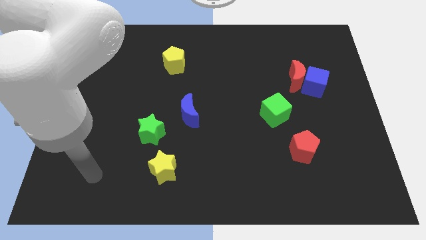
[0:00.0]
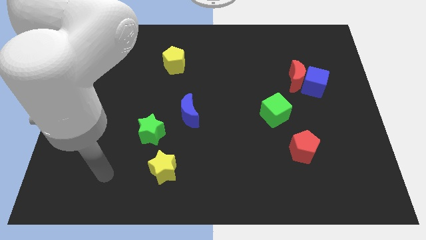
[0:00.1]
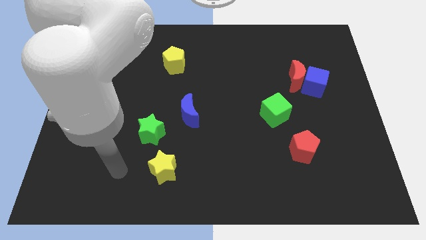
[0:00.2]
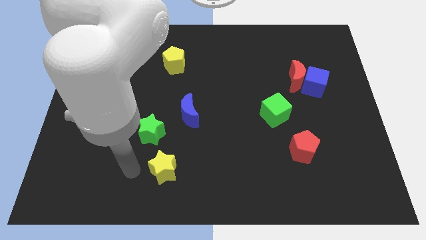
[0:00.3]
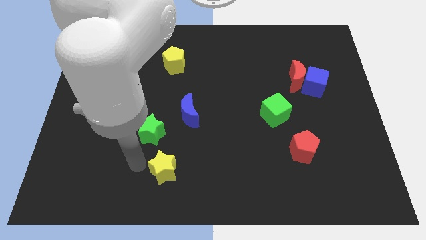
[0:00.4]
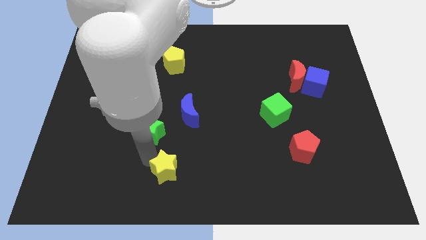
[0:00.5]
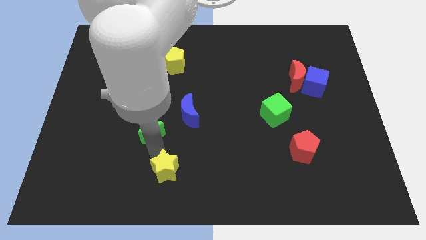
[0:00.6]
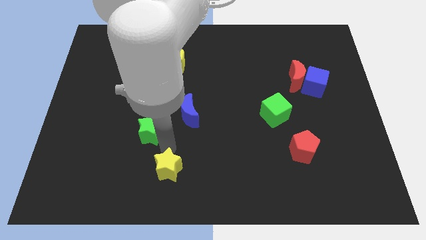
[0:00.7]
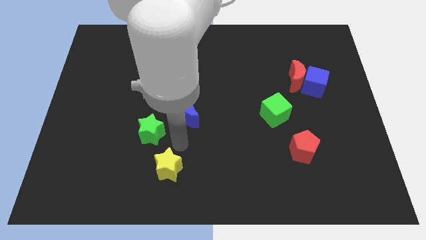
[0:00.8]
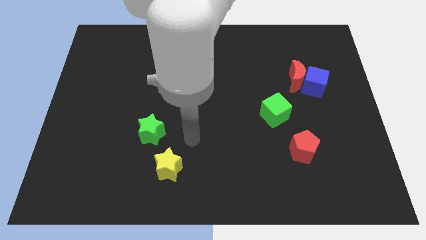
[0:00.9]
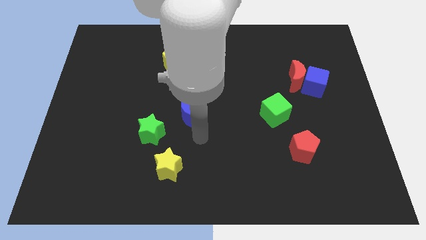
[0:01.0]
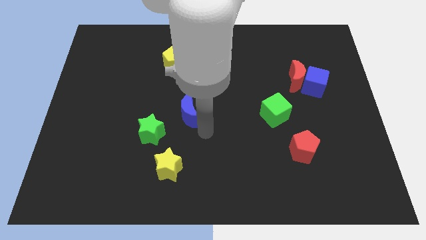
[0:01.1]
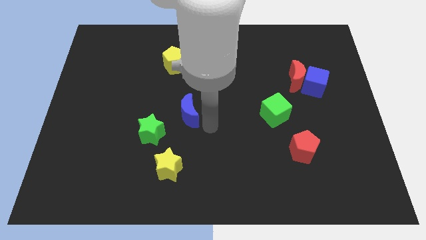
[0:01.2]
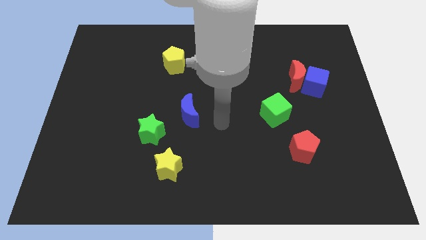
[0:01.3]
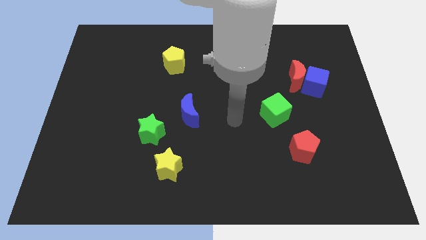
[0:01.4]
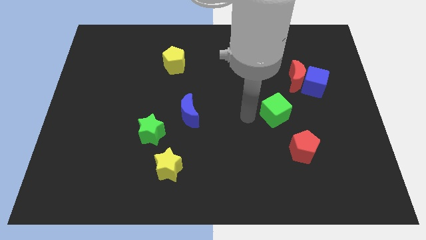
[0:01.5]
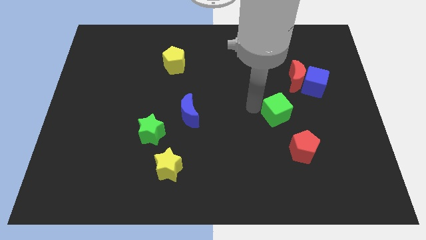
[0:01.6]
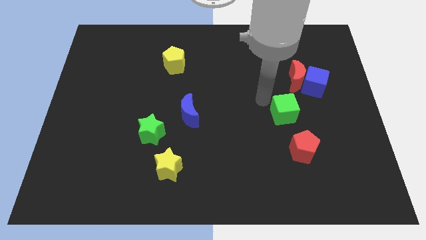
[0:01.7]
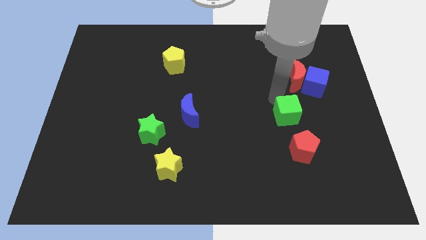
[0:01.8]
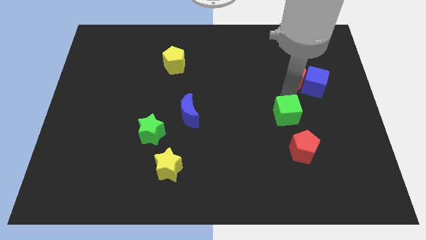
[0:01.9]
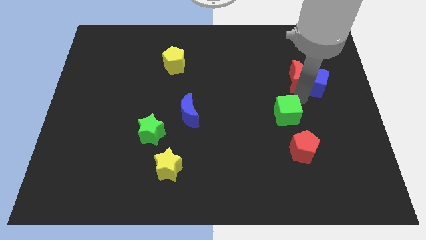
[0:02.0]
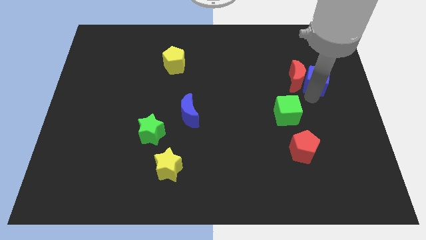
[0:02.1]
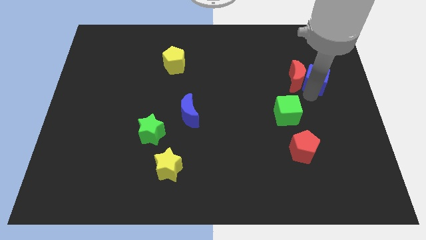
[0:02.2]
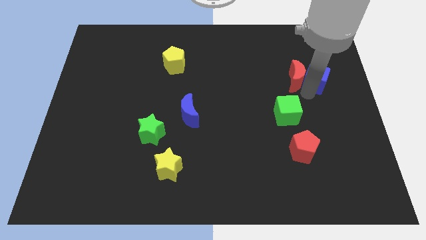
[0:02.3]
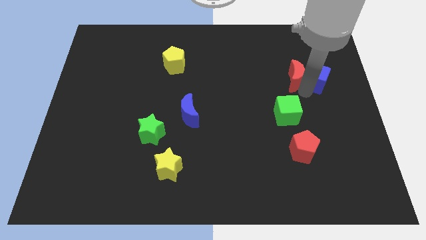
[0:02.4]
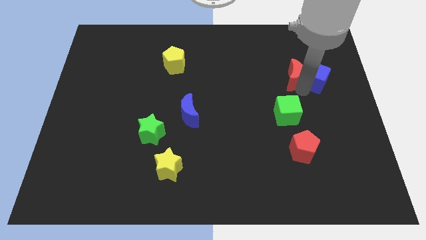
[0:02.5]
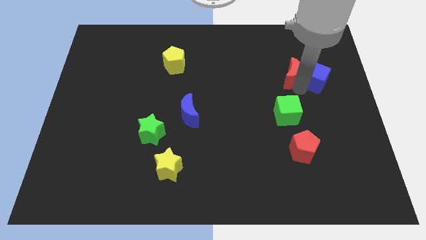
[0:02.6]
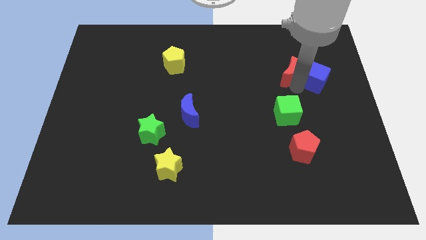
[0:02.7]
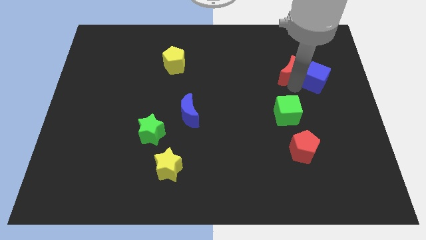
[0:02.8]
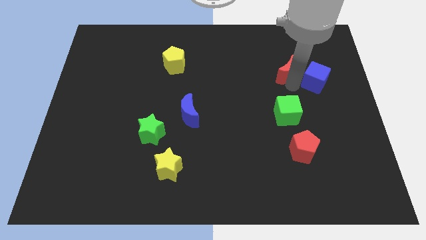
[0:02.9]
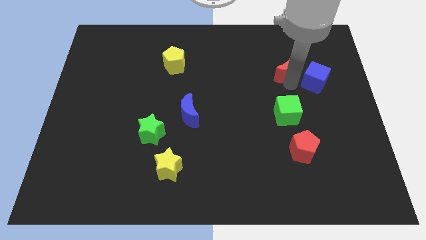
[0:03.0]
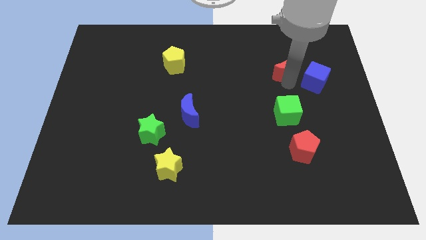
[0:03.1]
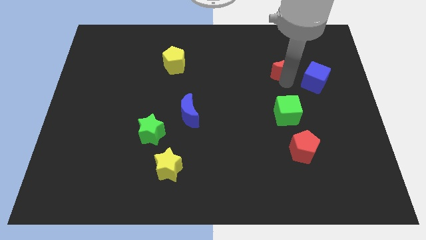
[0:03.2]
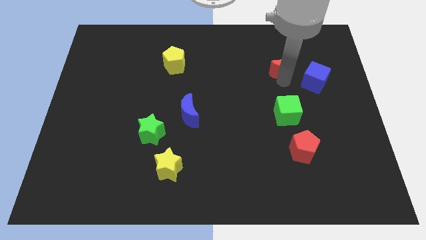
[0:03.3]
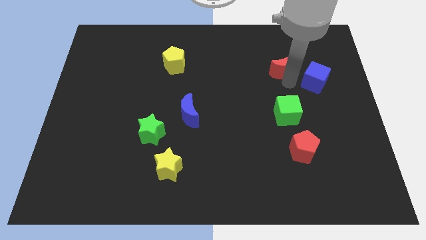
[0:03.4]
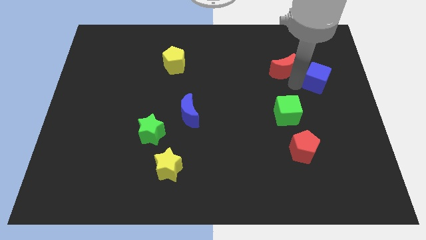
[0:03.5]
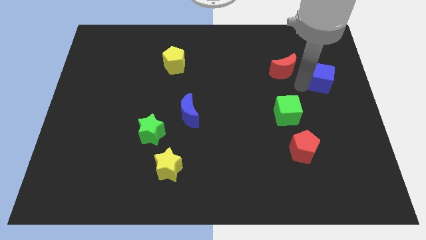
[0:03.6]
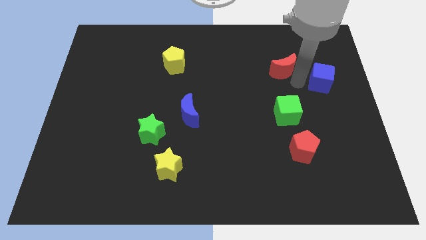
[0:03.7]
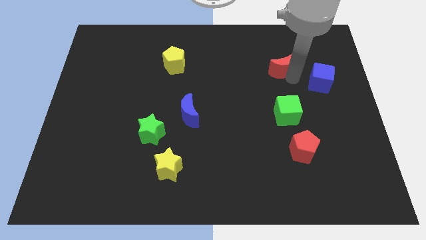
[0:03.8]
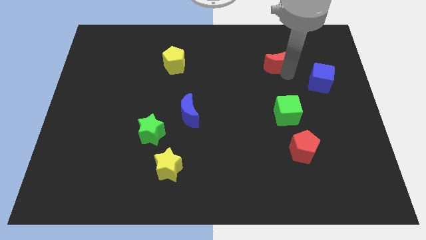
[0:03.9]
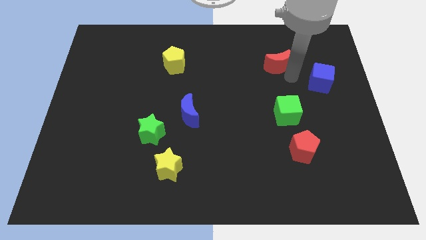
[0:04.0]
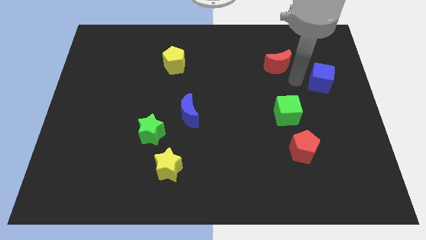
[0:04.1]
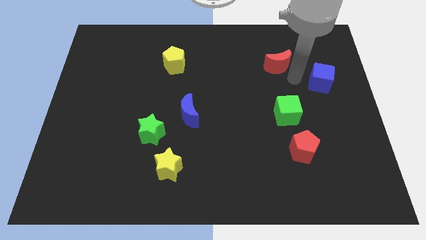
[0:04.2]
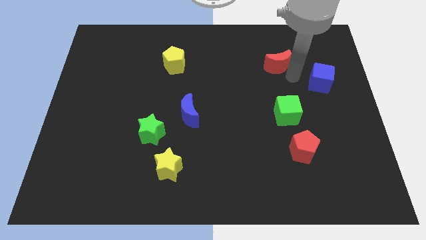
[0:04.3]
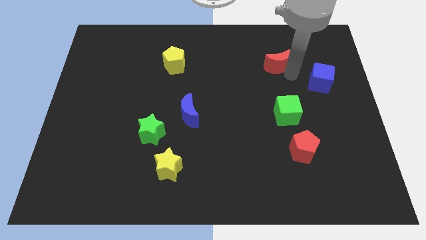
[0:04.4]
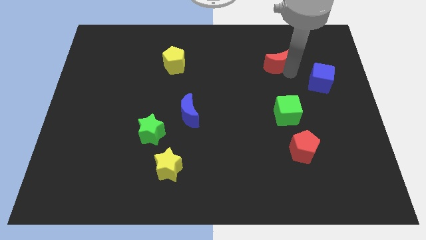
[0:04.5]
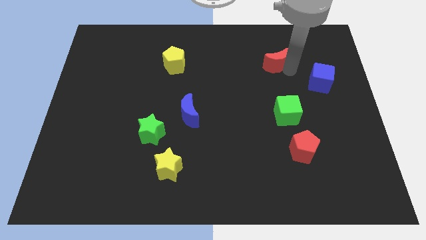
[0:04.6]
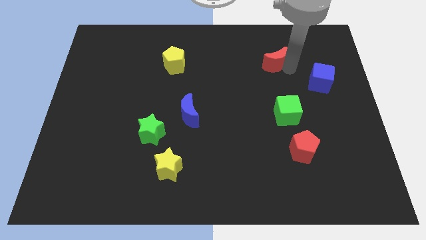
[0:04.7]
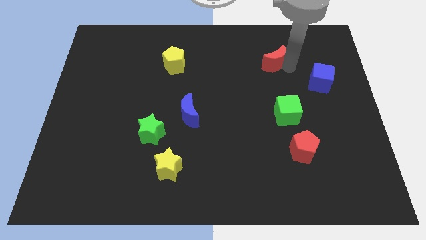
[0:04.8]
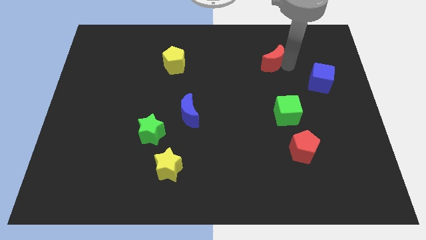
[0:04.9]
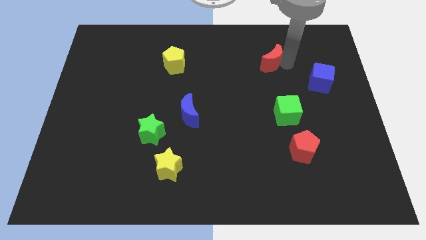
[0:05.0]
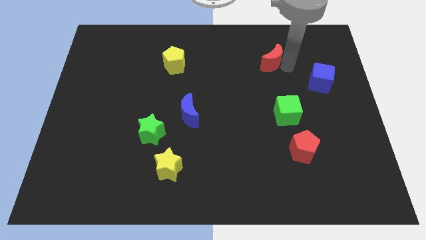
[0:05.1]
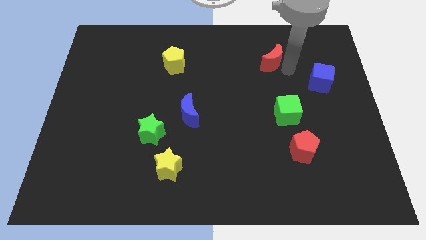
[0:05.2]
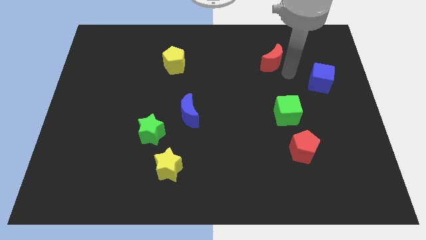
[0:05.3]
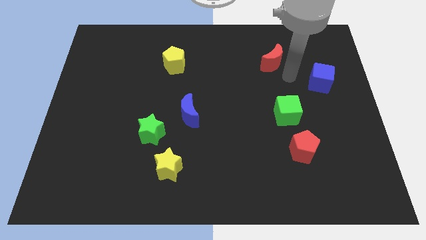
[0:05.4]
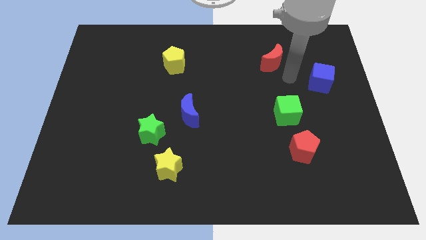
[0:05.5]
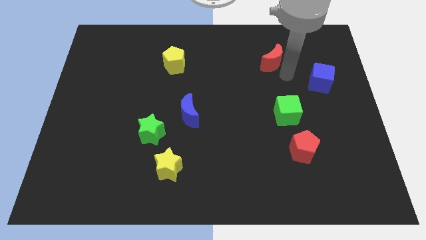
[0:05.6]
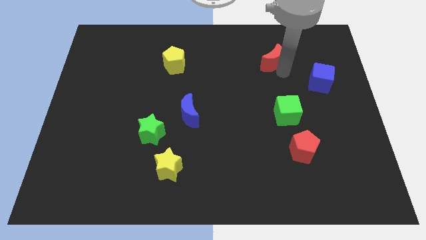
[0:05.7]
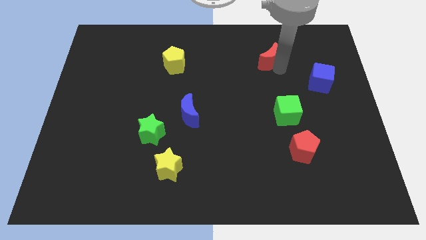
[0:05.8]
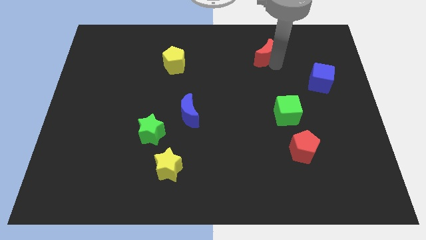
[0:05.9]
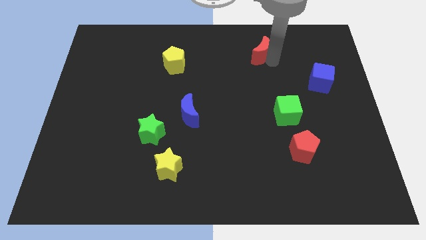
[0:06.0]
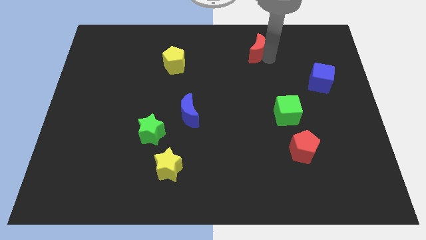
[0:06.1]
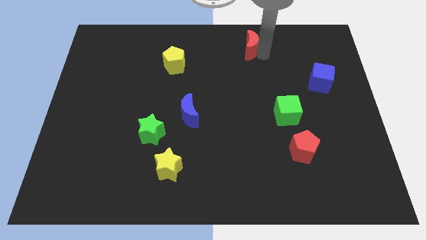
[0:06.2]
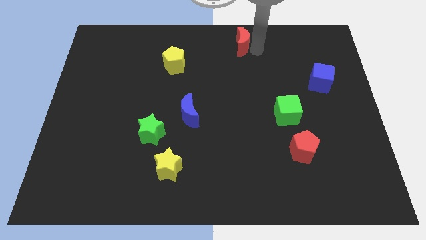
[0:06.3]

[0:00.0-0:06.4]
push the red moon to the top side

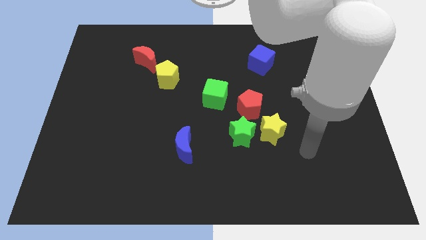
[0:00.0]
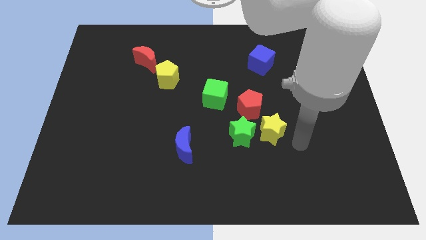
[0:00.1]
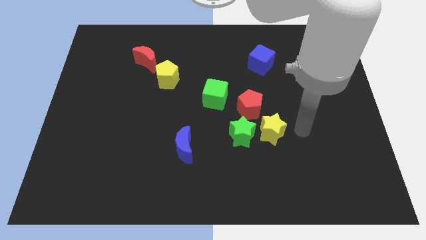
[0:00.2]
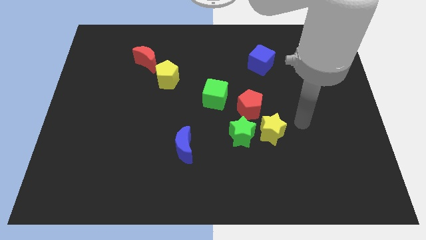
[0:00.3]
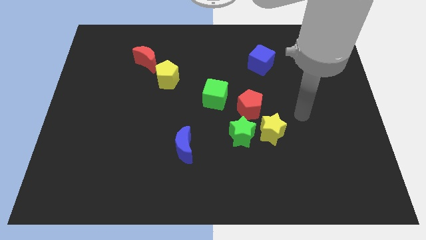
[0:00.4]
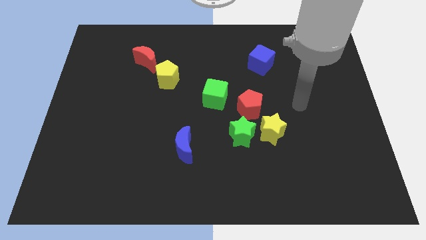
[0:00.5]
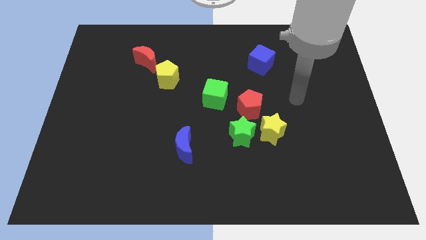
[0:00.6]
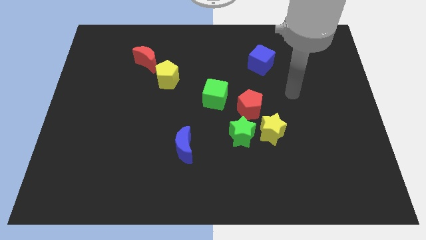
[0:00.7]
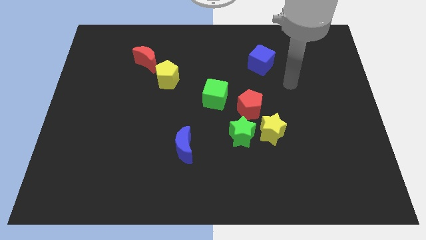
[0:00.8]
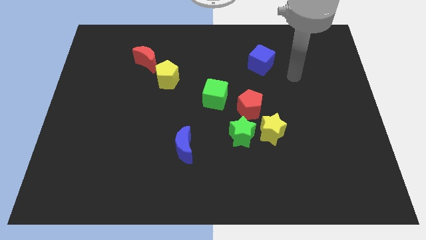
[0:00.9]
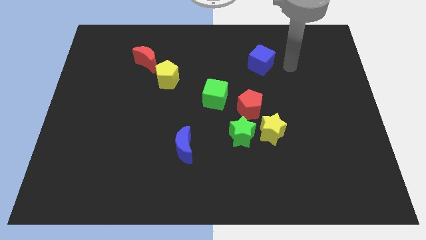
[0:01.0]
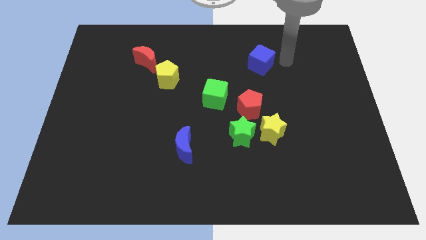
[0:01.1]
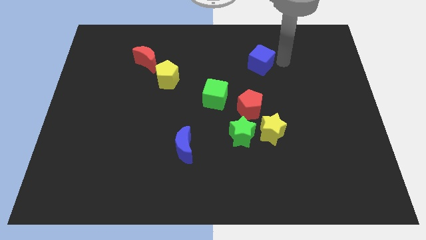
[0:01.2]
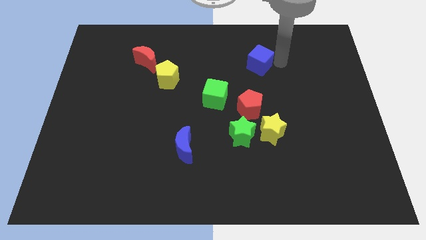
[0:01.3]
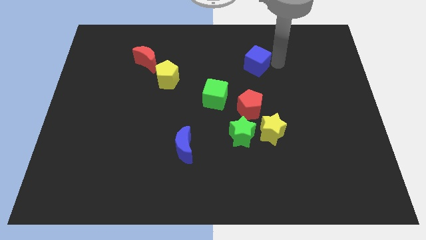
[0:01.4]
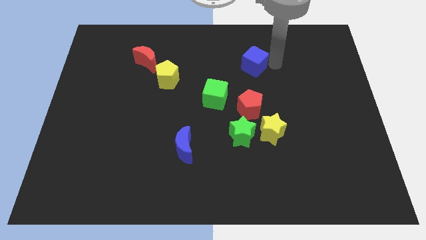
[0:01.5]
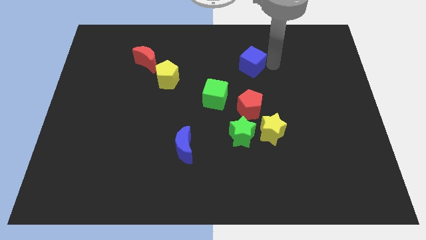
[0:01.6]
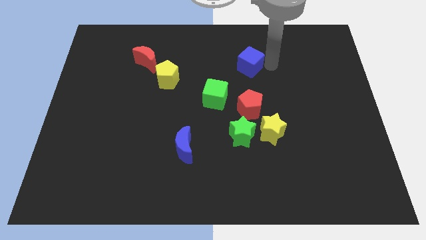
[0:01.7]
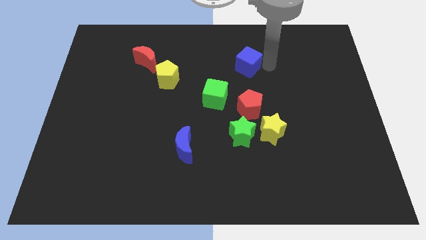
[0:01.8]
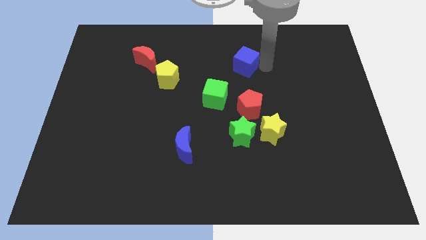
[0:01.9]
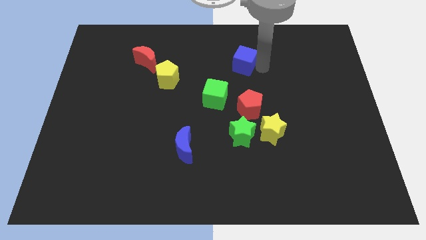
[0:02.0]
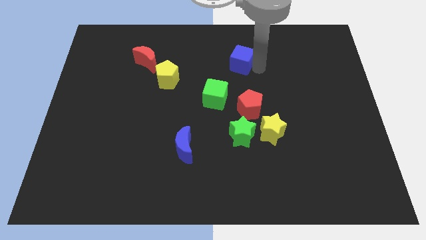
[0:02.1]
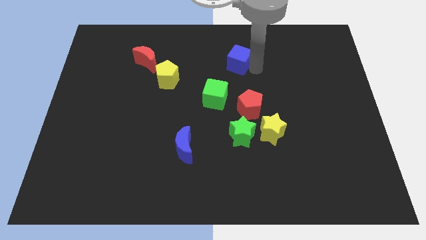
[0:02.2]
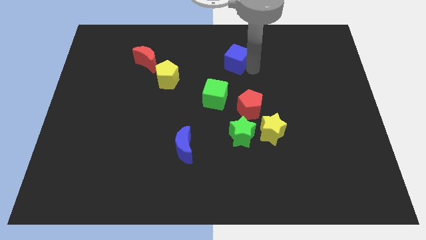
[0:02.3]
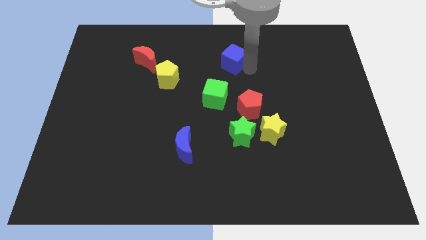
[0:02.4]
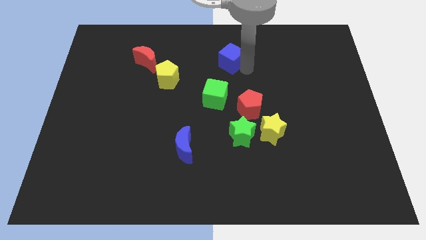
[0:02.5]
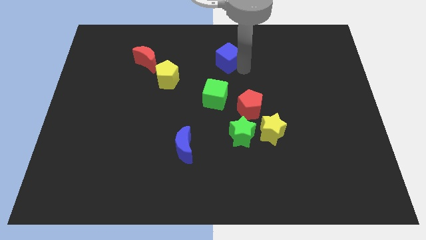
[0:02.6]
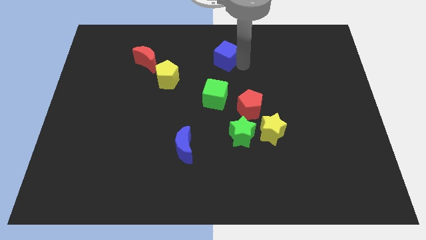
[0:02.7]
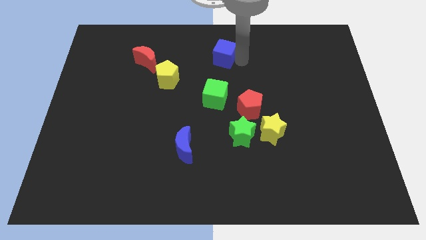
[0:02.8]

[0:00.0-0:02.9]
put the blue cube to the towards your base
